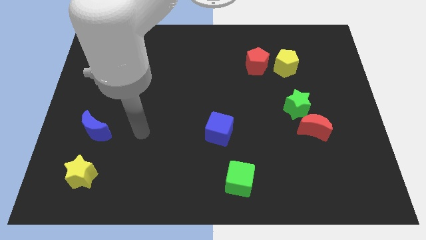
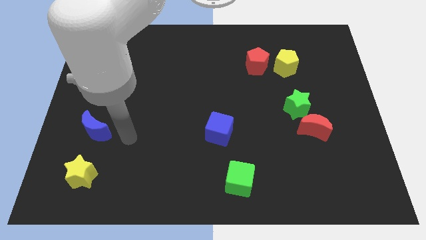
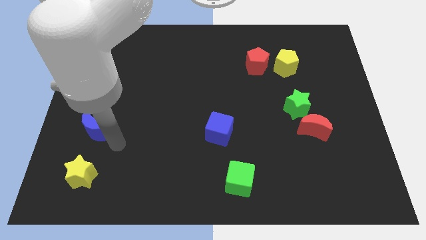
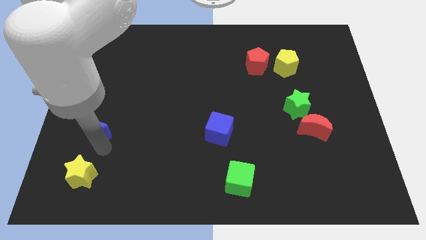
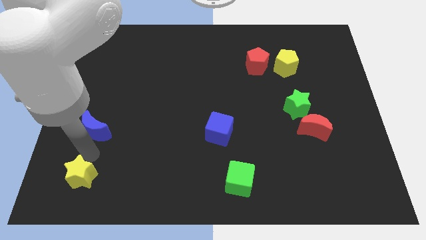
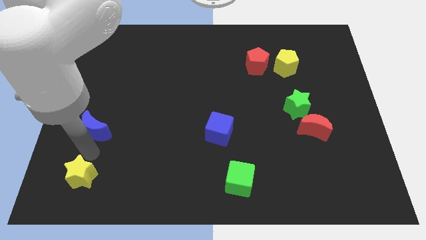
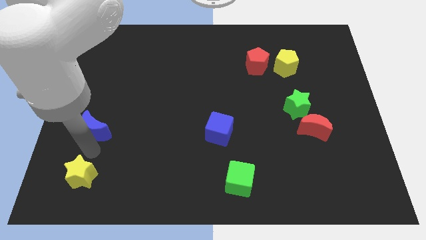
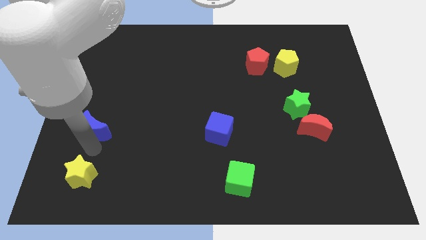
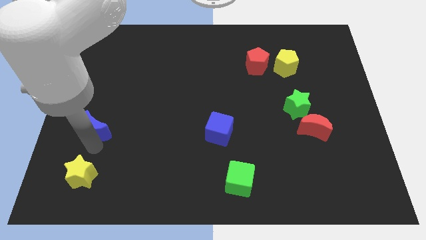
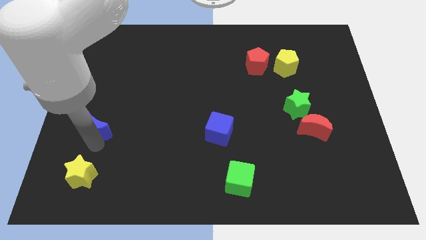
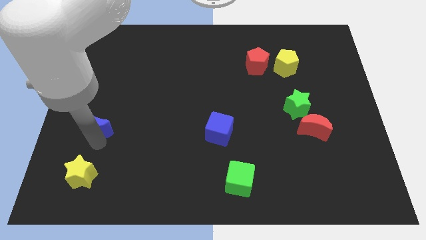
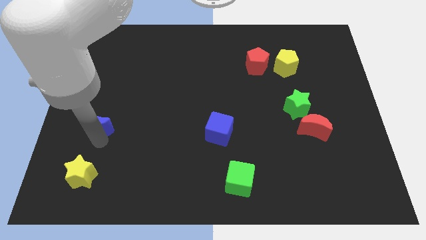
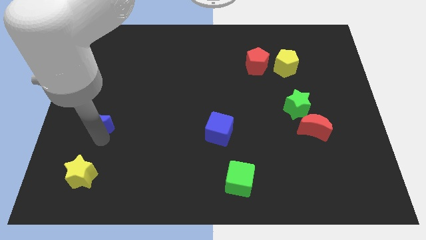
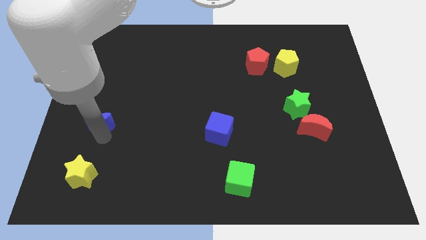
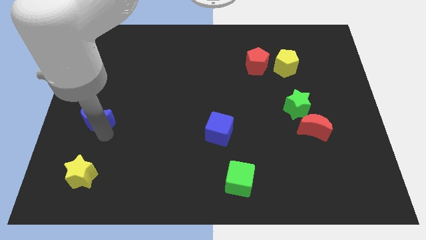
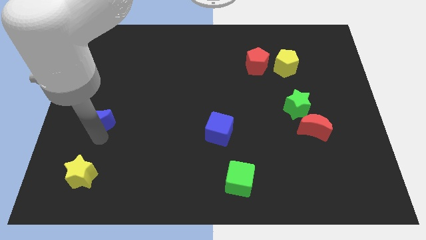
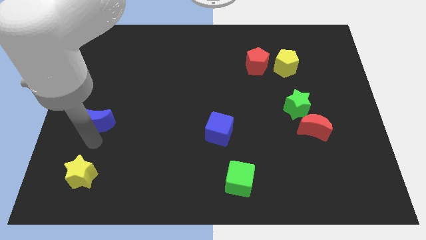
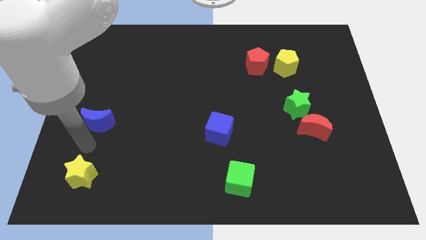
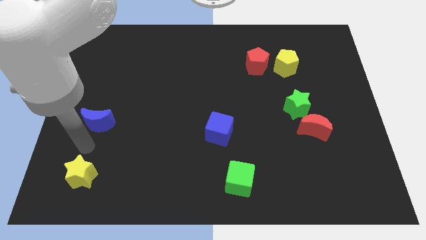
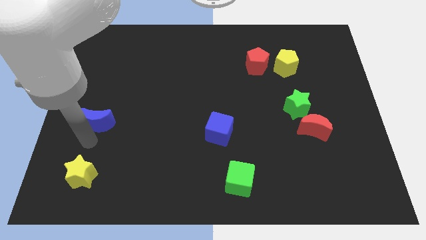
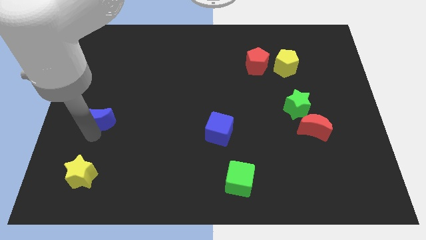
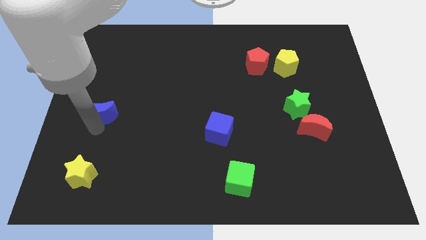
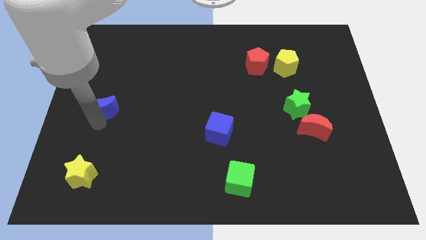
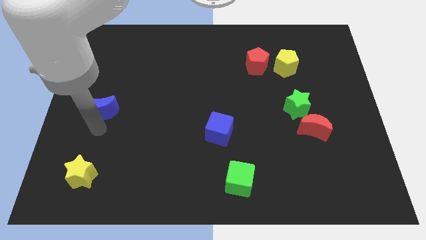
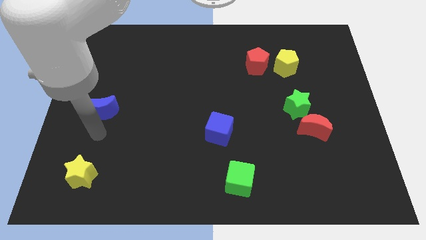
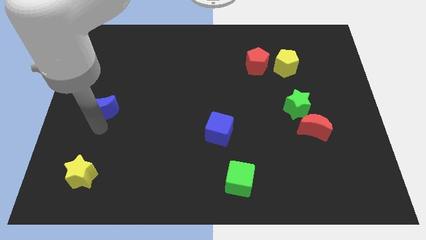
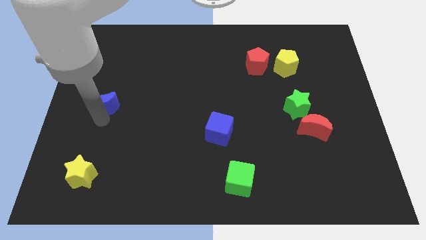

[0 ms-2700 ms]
slightly push the blue moon up

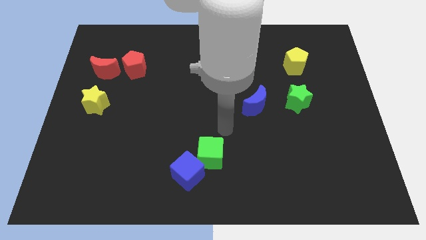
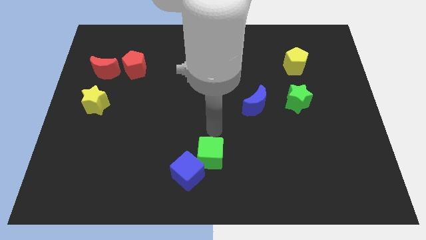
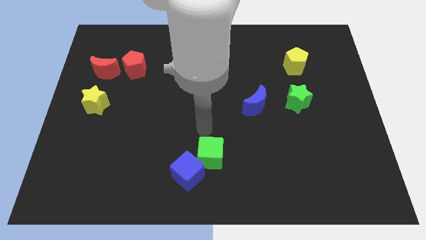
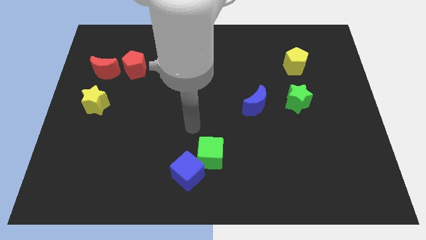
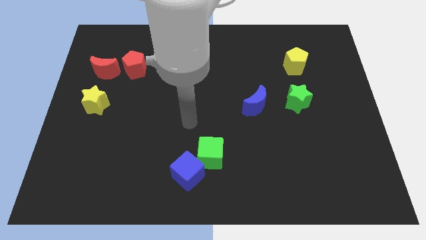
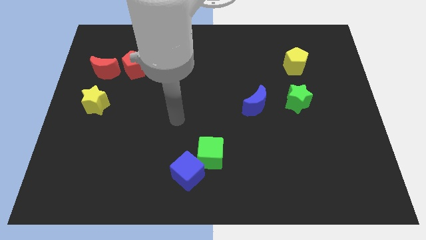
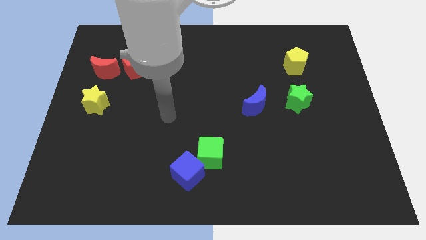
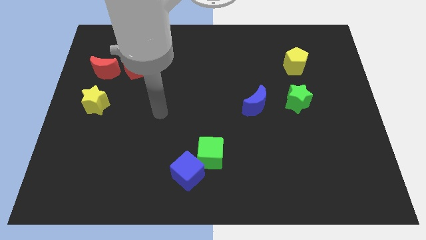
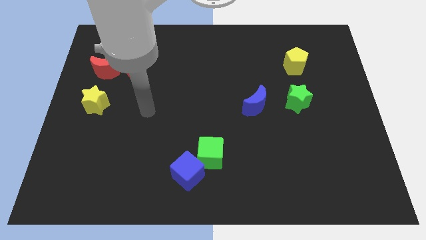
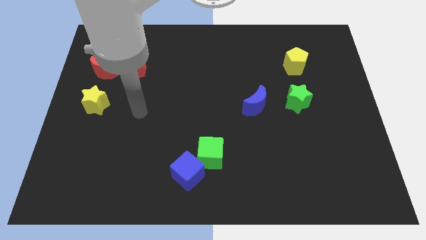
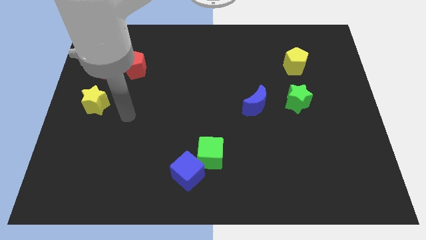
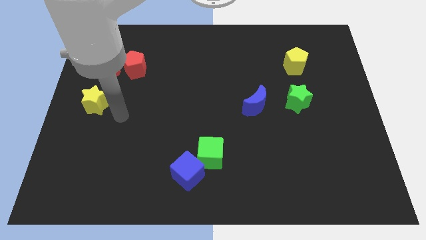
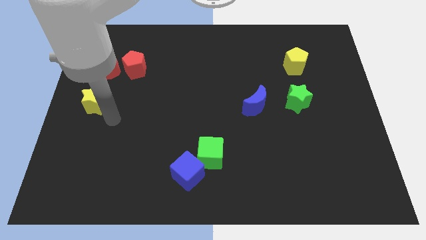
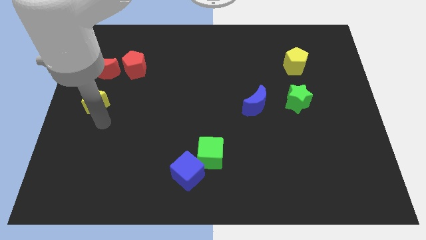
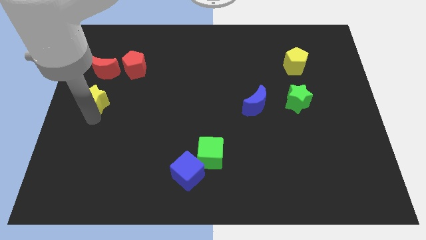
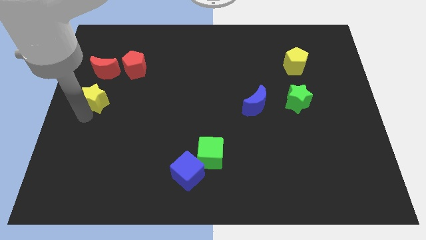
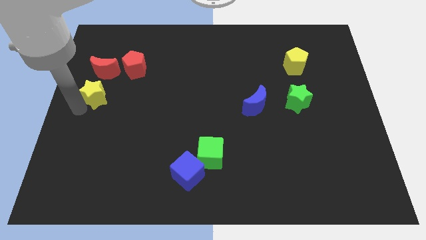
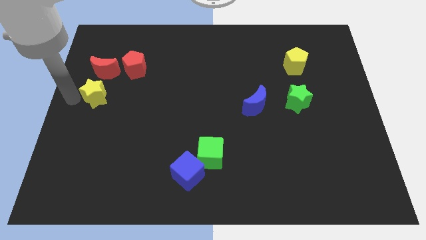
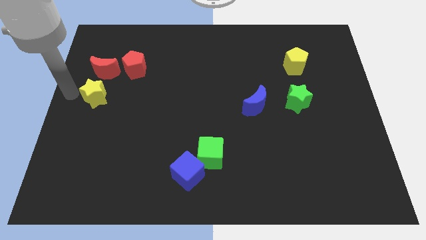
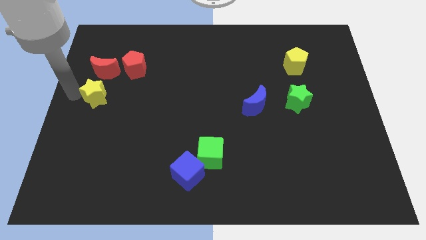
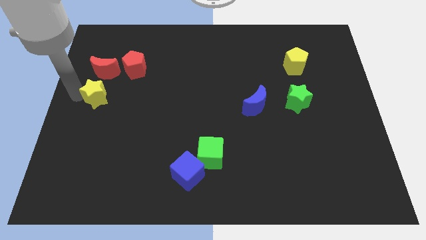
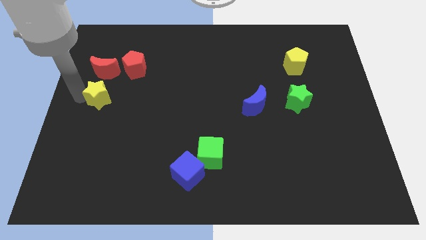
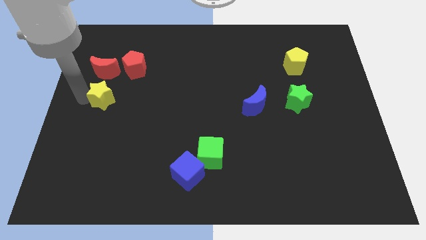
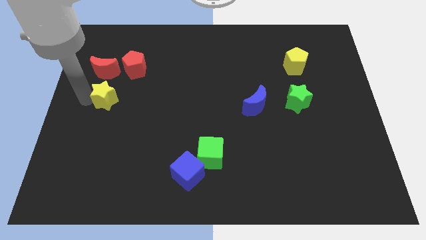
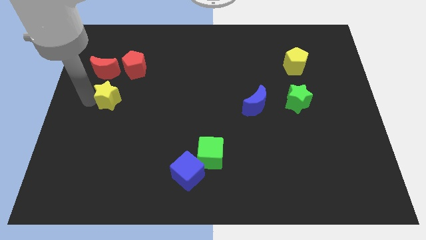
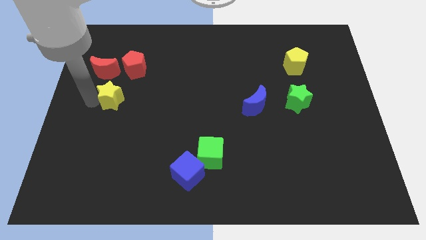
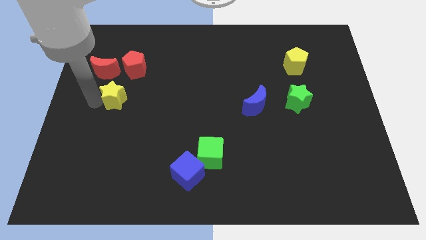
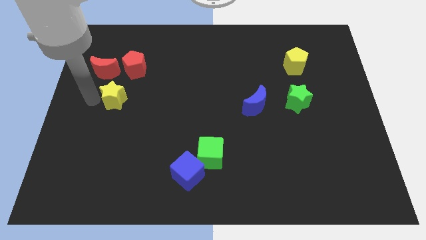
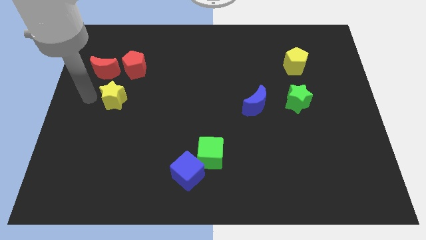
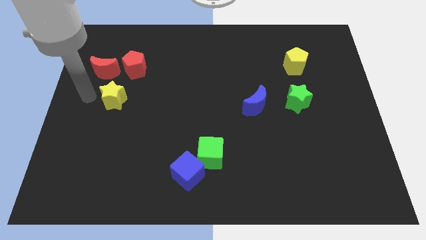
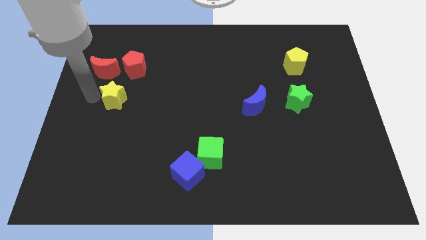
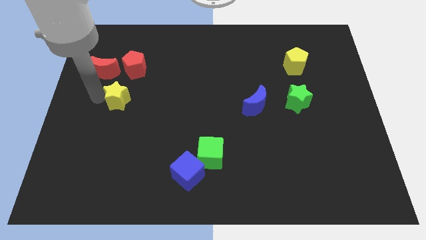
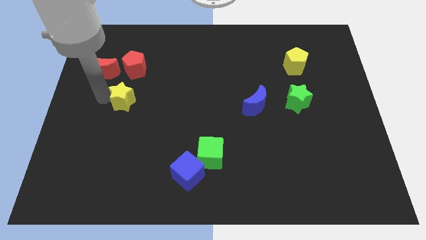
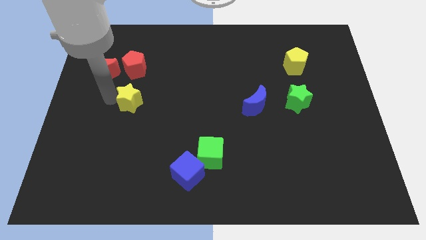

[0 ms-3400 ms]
slide the yellow star a little right

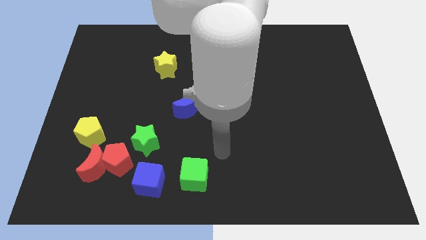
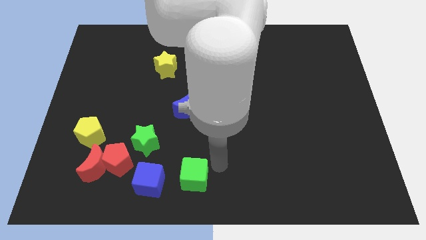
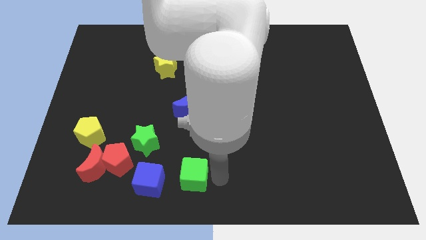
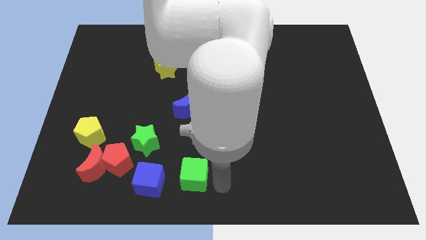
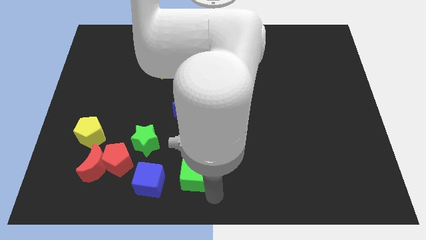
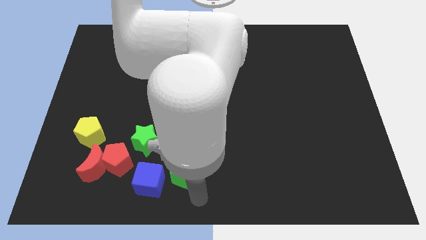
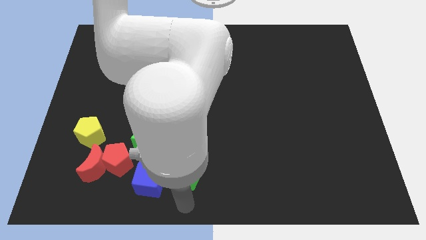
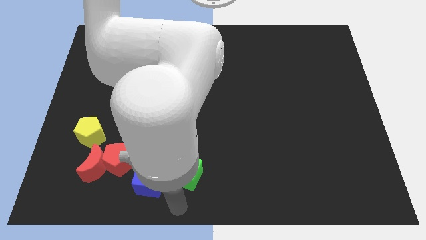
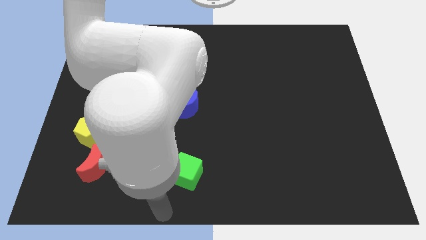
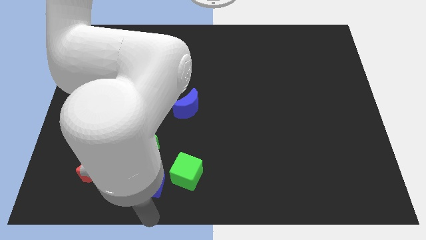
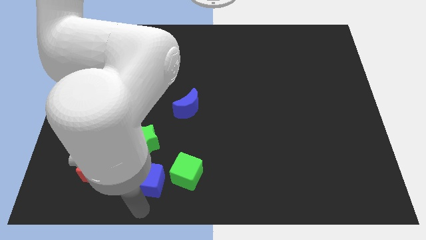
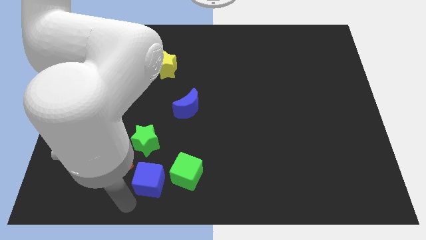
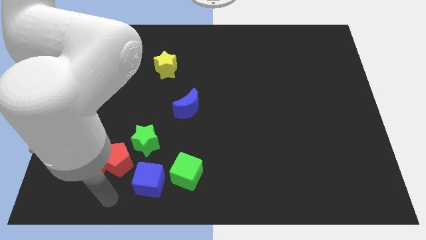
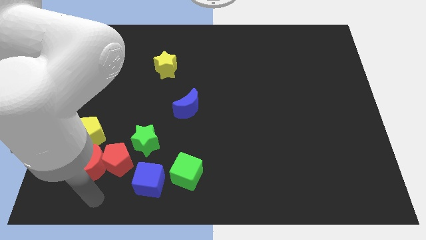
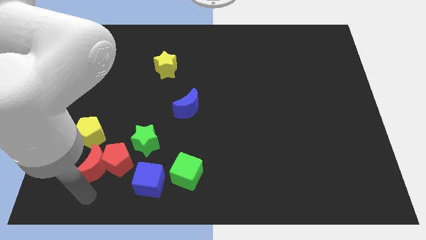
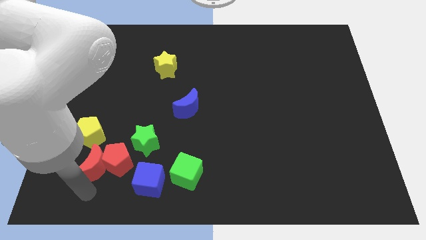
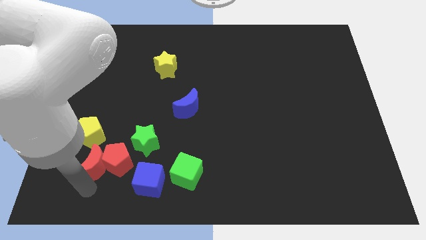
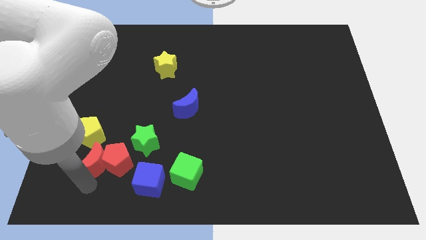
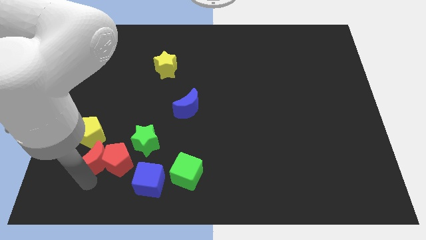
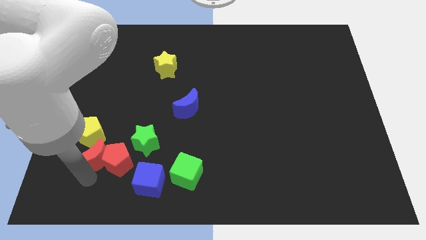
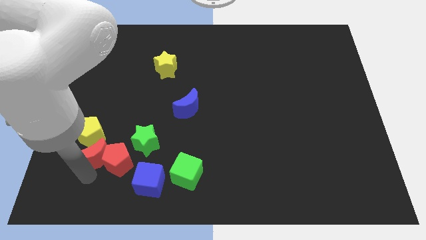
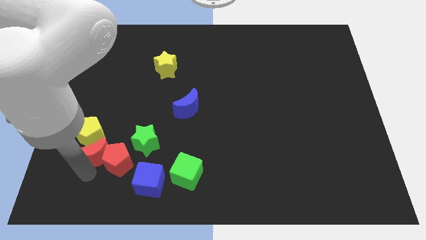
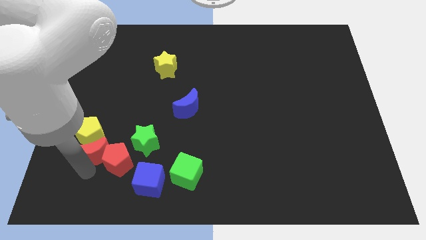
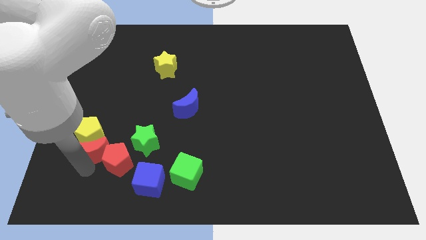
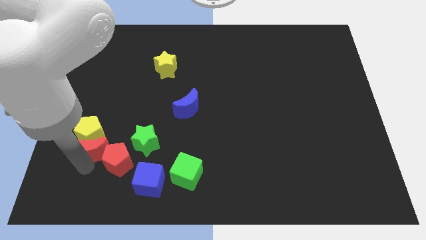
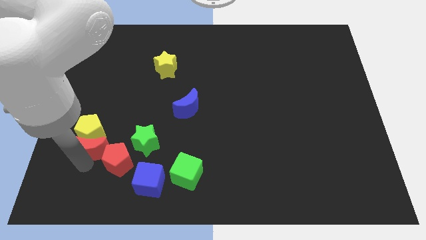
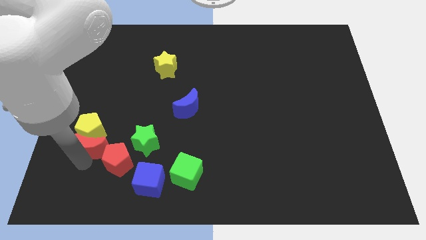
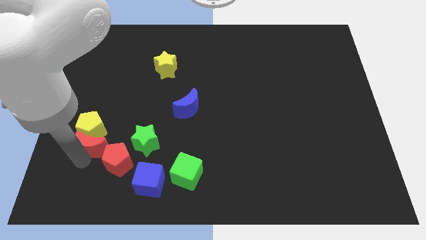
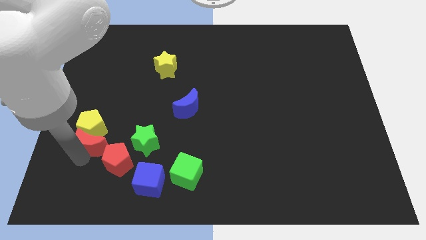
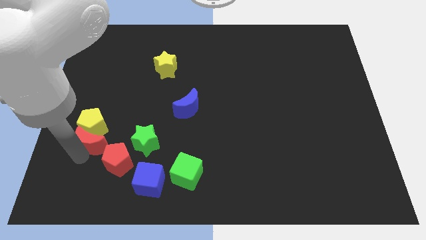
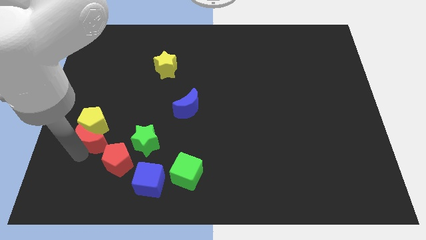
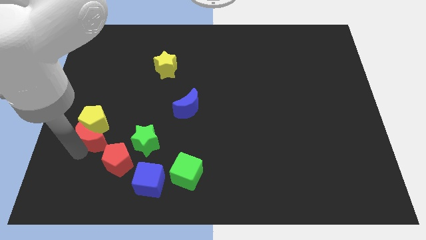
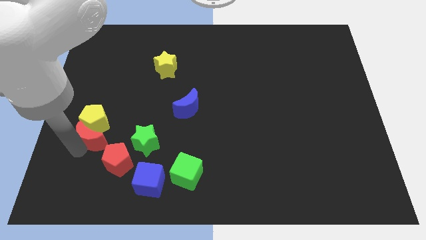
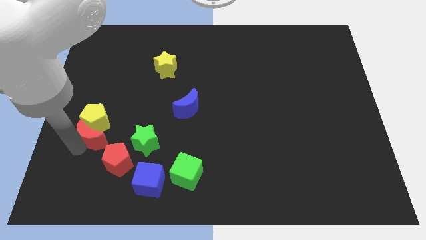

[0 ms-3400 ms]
slide the red moon up a little bit
